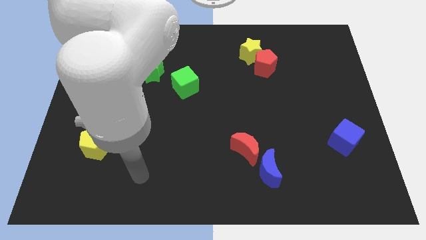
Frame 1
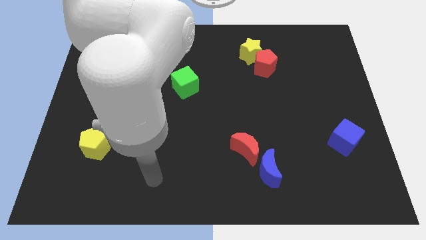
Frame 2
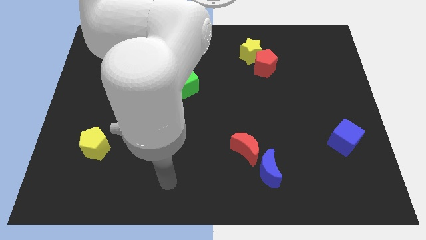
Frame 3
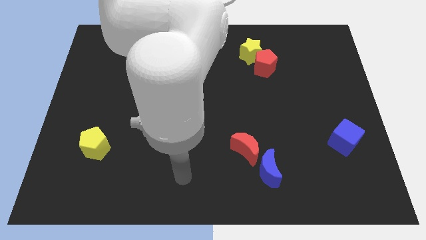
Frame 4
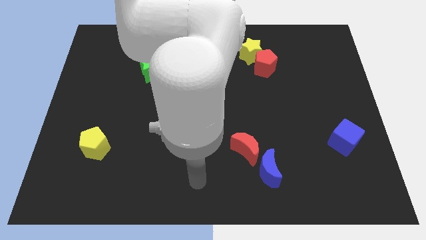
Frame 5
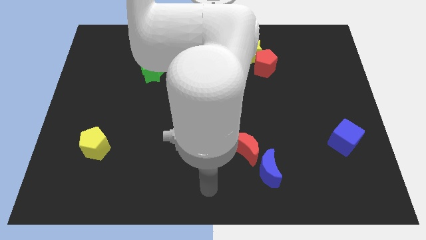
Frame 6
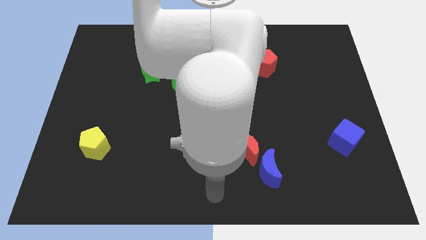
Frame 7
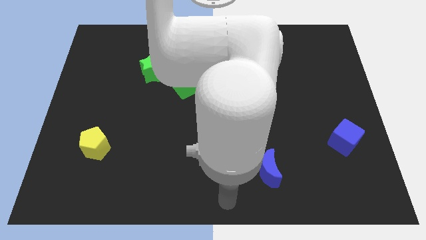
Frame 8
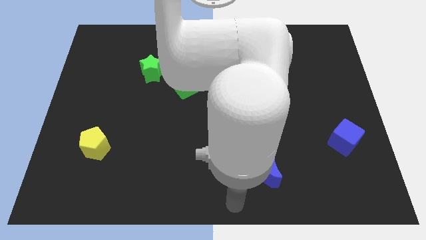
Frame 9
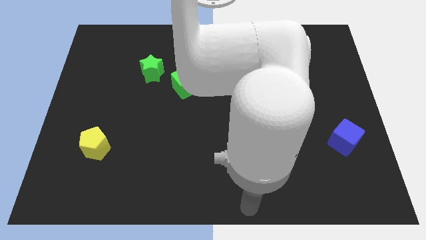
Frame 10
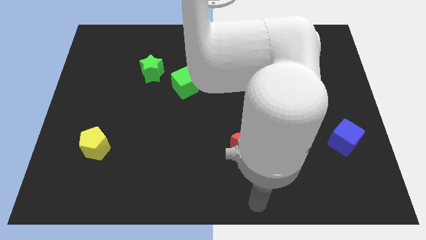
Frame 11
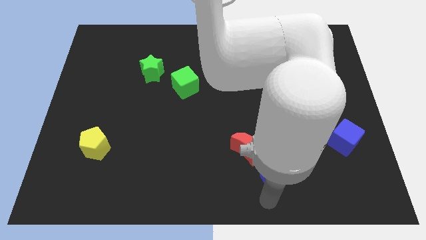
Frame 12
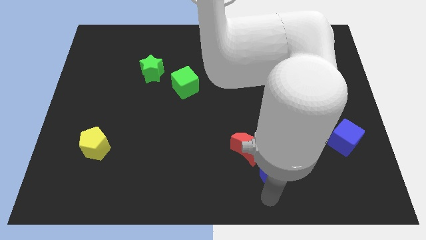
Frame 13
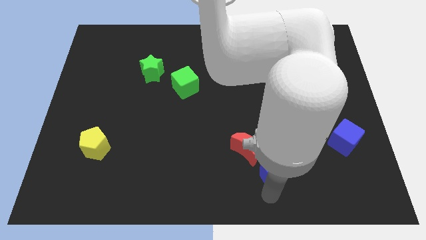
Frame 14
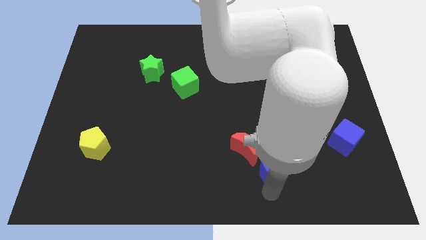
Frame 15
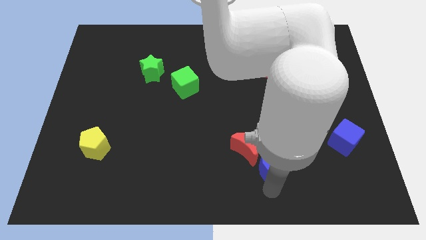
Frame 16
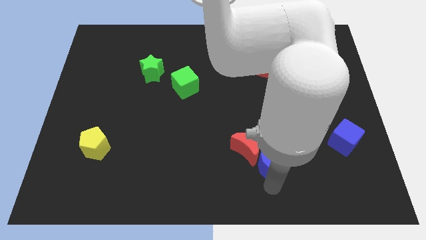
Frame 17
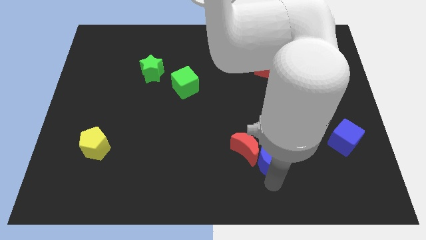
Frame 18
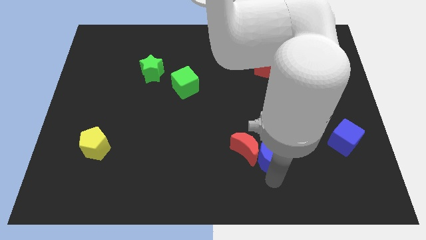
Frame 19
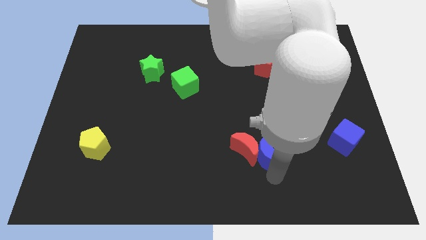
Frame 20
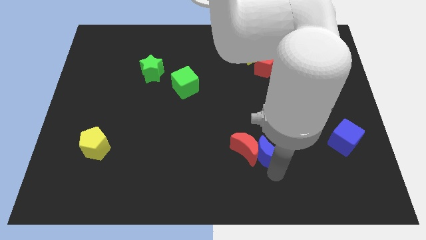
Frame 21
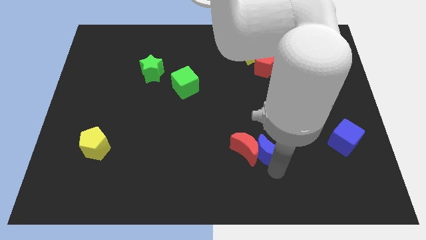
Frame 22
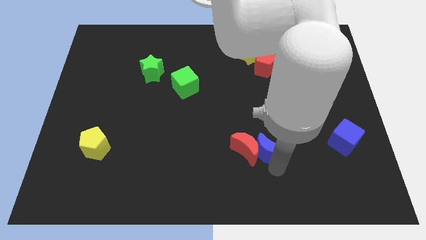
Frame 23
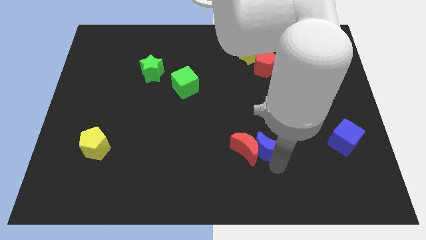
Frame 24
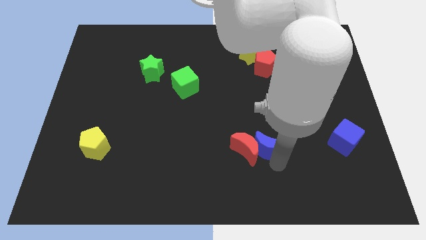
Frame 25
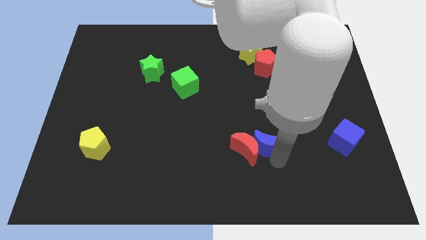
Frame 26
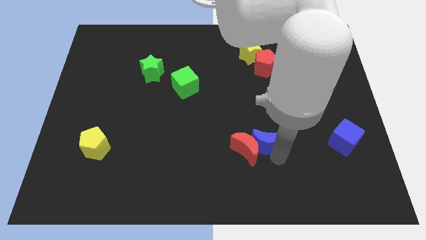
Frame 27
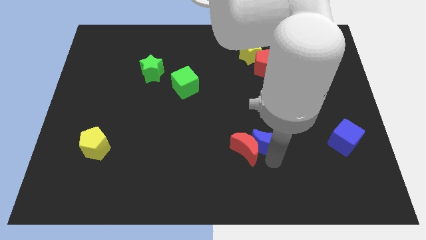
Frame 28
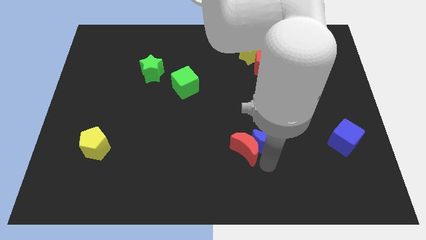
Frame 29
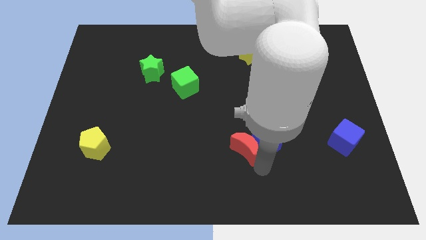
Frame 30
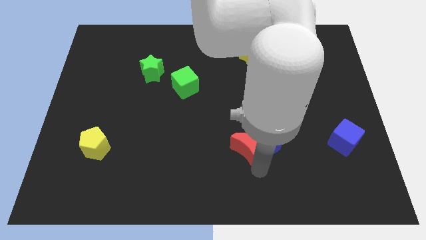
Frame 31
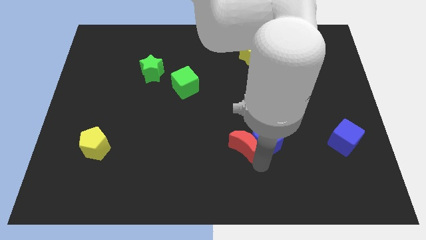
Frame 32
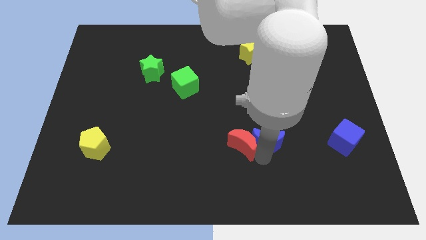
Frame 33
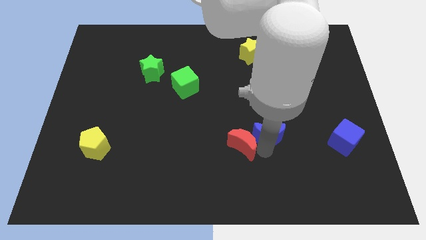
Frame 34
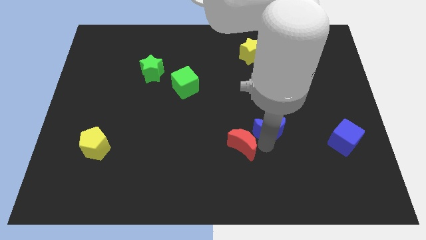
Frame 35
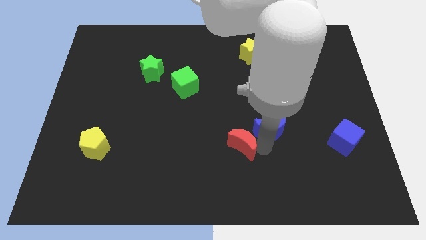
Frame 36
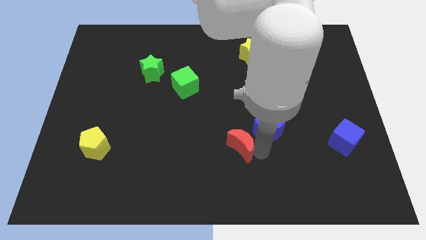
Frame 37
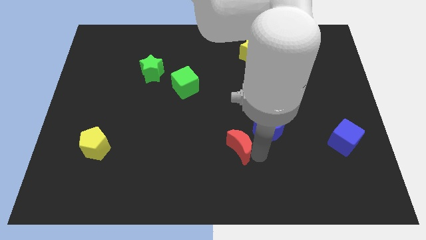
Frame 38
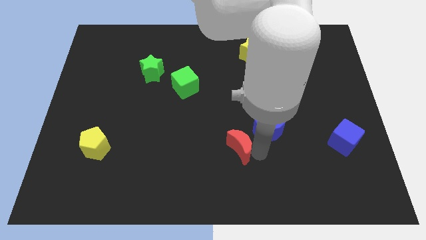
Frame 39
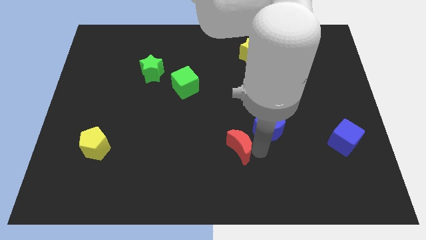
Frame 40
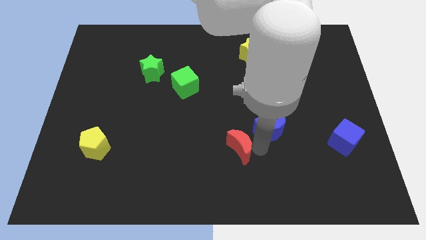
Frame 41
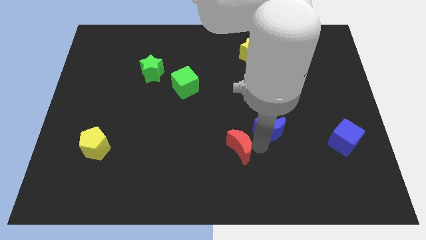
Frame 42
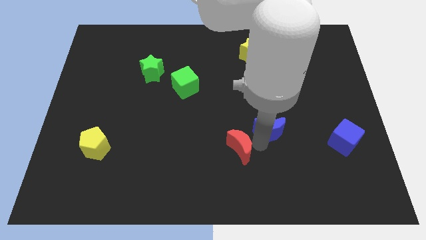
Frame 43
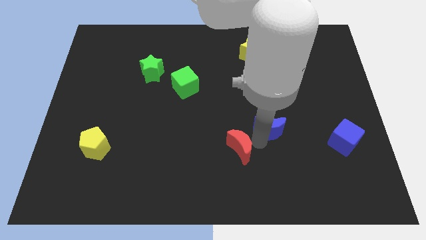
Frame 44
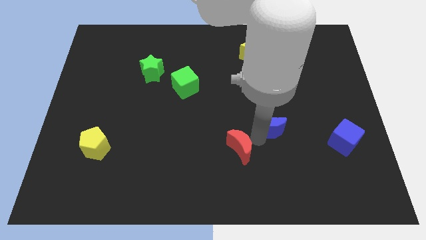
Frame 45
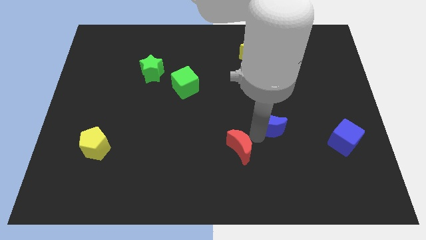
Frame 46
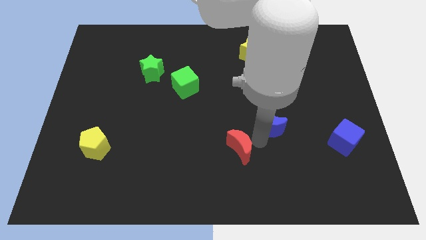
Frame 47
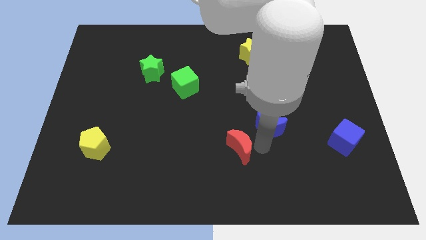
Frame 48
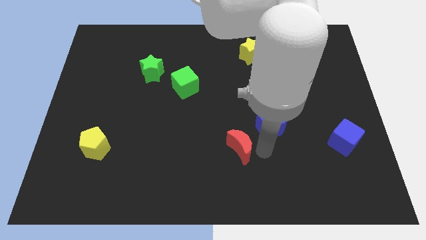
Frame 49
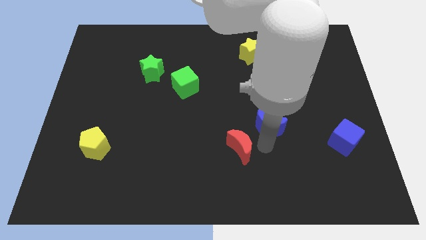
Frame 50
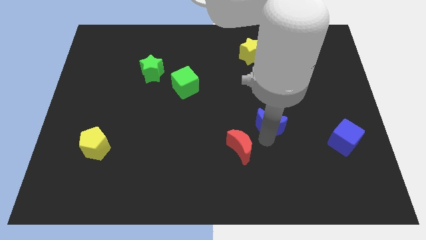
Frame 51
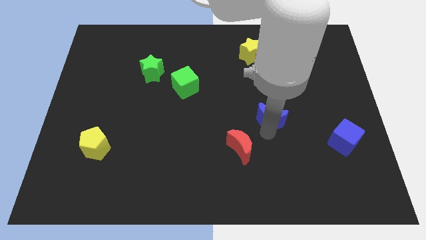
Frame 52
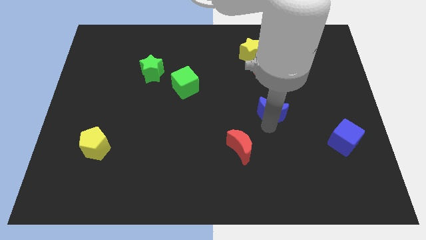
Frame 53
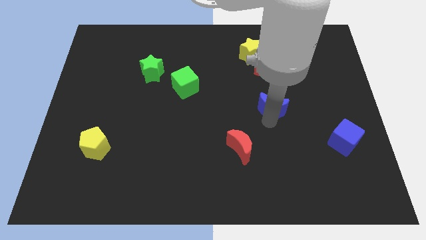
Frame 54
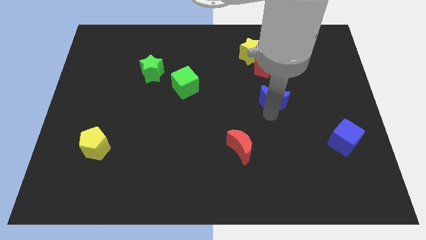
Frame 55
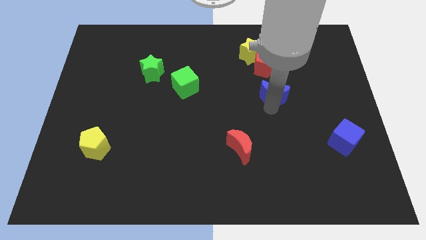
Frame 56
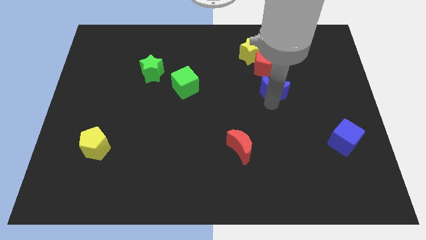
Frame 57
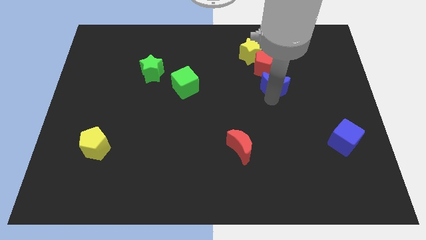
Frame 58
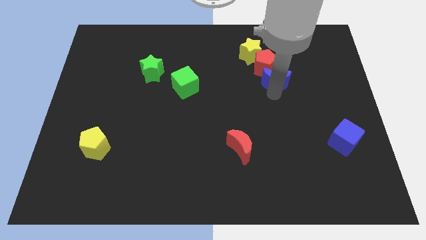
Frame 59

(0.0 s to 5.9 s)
move the blue moon towards the red pentagon

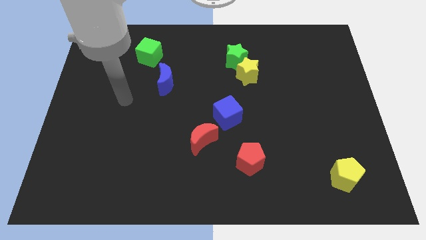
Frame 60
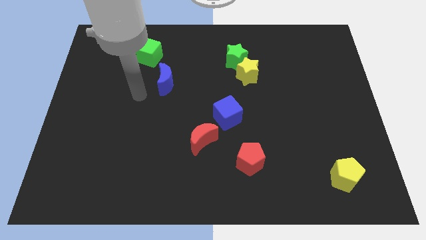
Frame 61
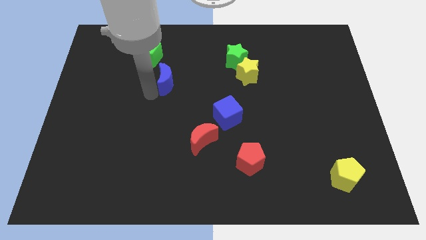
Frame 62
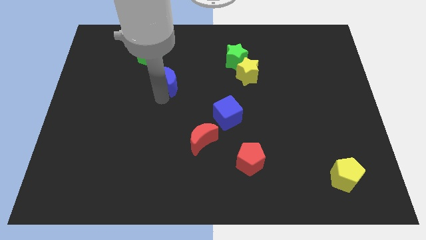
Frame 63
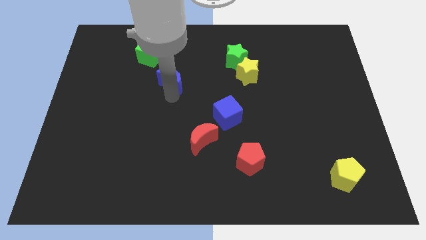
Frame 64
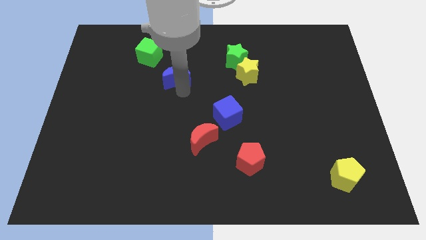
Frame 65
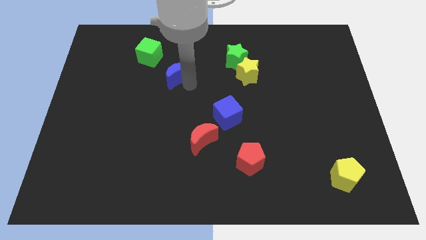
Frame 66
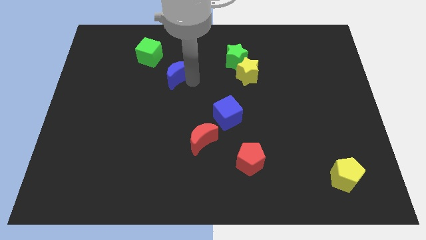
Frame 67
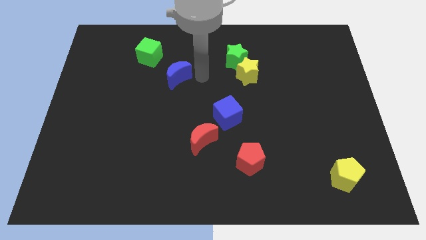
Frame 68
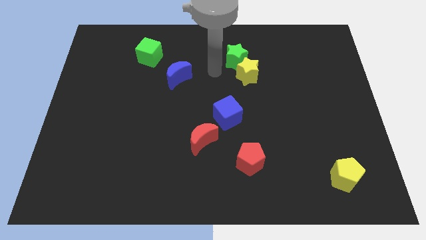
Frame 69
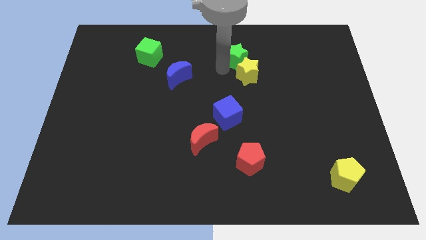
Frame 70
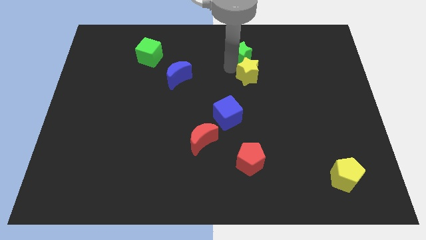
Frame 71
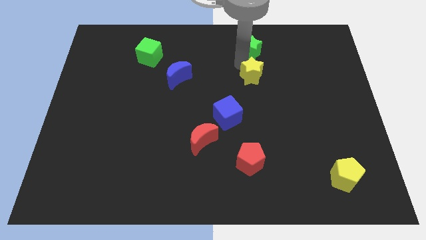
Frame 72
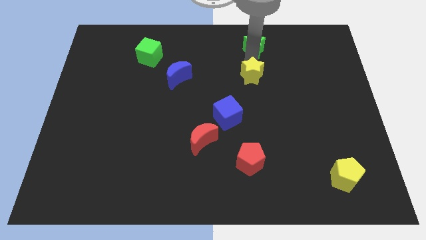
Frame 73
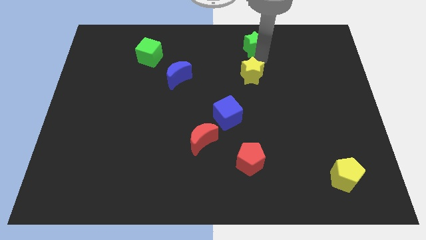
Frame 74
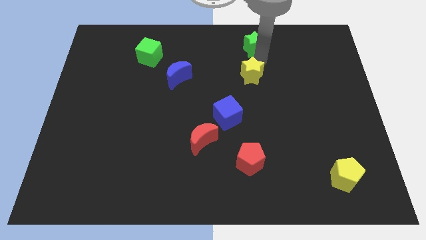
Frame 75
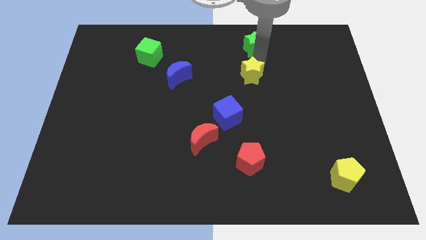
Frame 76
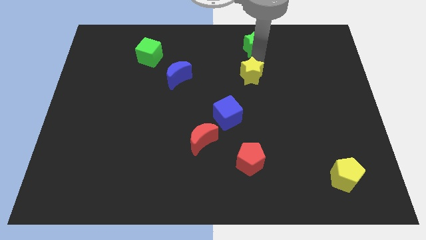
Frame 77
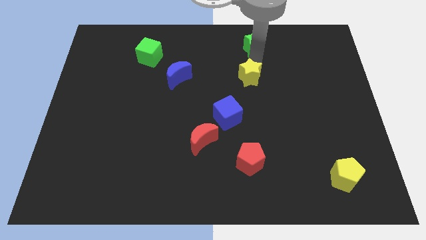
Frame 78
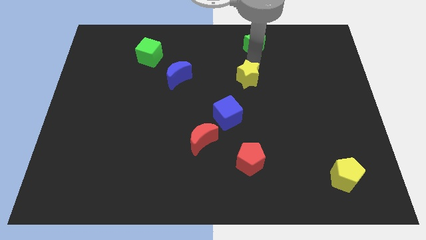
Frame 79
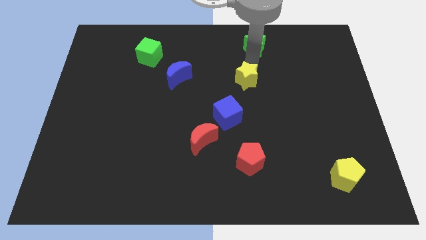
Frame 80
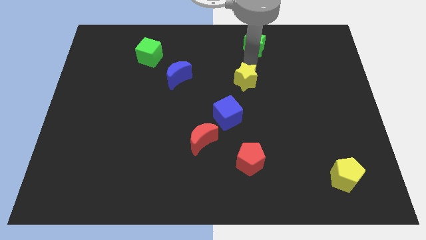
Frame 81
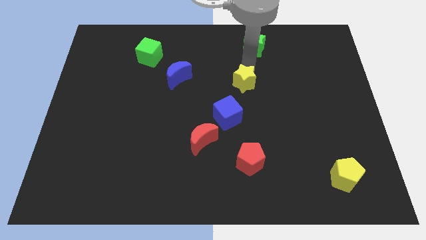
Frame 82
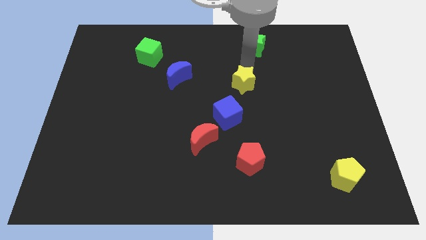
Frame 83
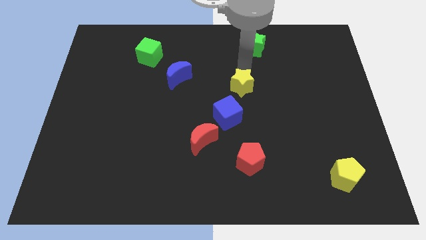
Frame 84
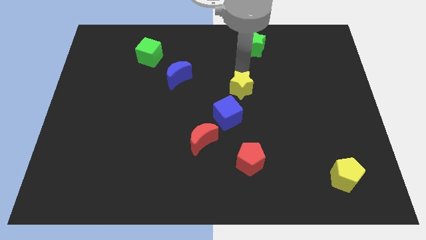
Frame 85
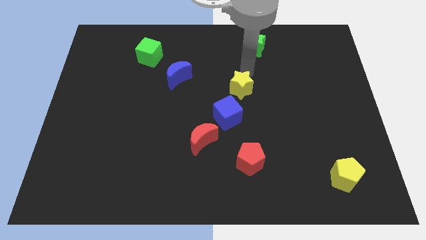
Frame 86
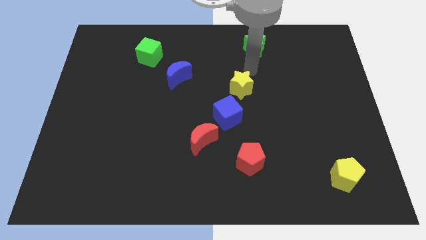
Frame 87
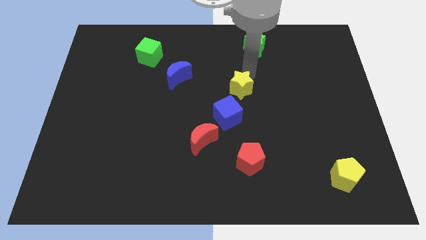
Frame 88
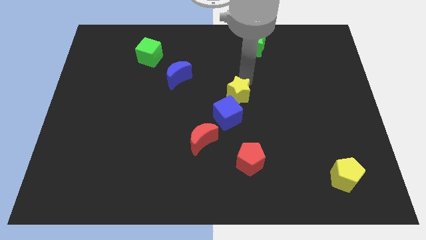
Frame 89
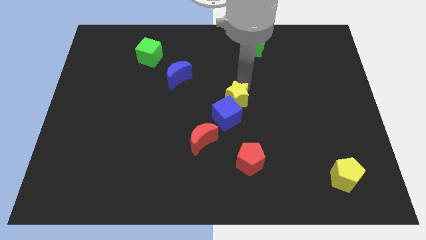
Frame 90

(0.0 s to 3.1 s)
push the yellow star to the blue cube
